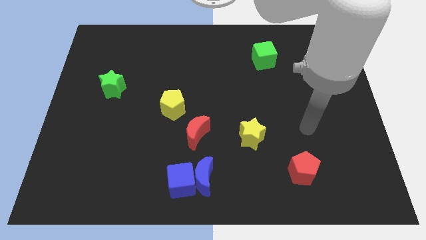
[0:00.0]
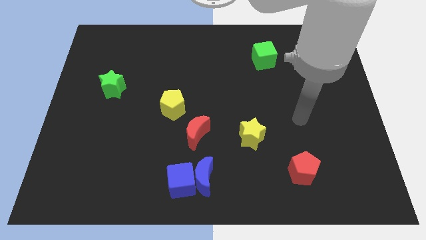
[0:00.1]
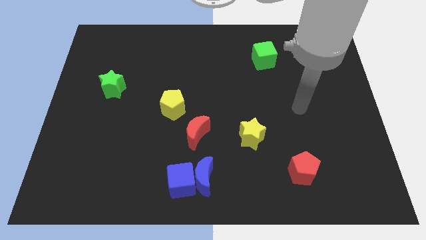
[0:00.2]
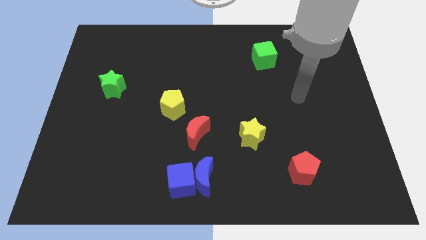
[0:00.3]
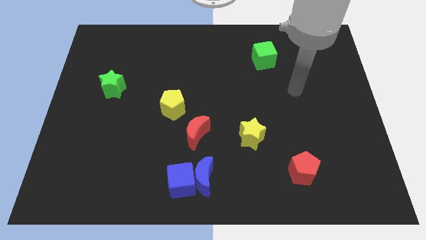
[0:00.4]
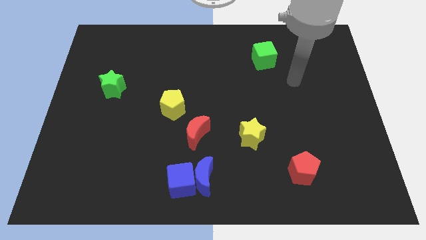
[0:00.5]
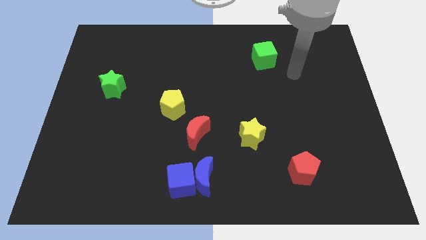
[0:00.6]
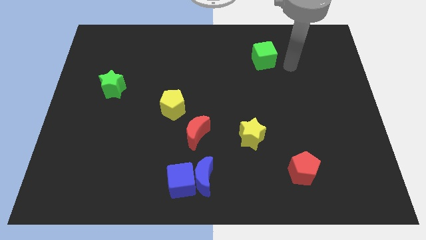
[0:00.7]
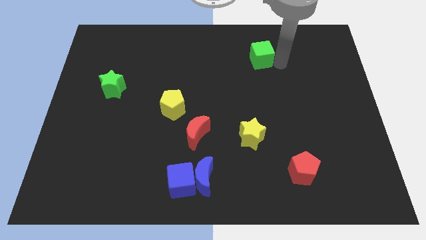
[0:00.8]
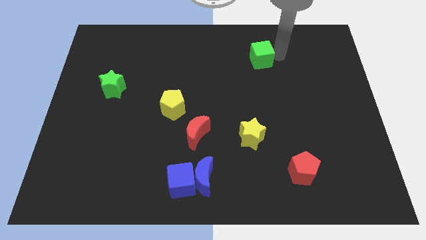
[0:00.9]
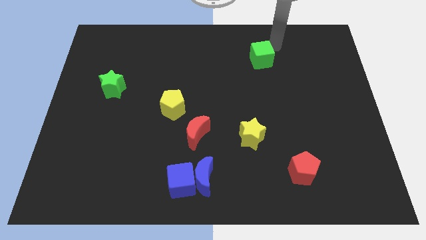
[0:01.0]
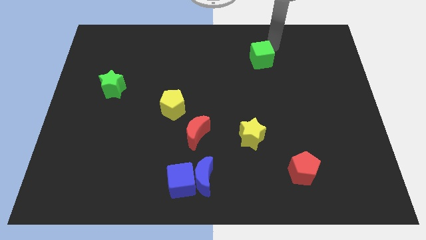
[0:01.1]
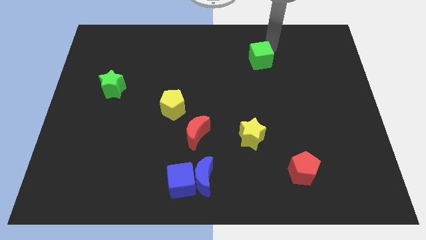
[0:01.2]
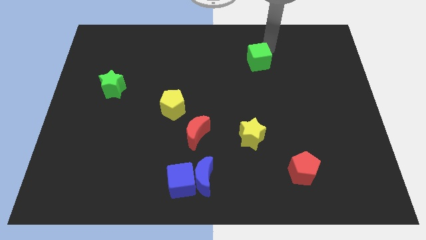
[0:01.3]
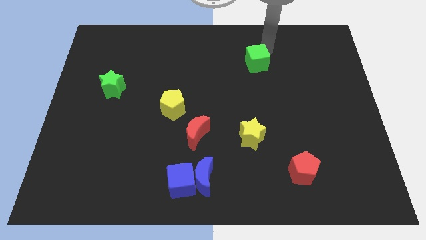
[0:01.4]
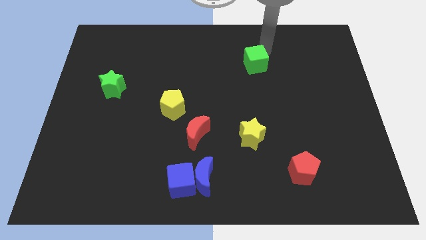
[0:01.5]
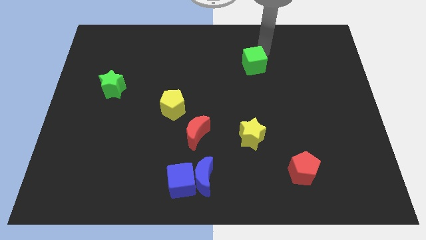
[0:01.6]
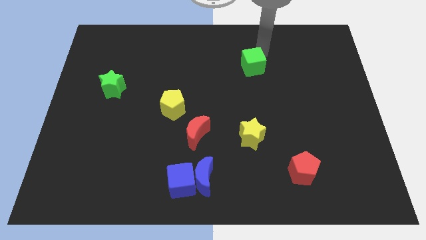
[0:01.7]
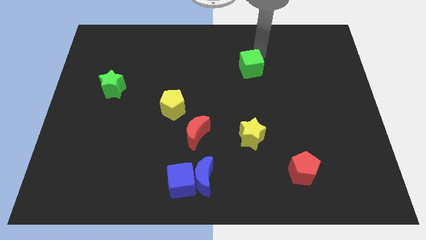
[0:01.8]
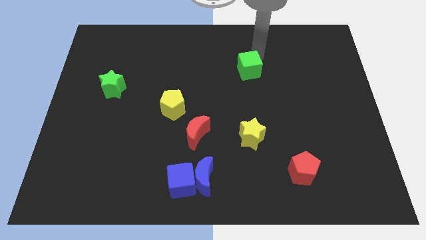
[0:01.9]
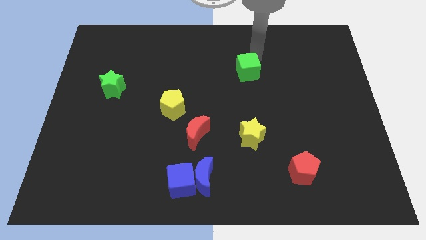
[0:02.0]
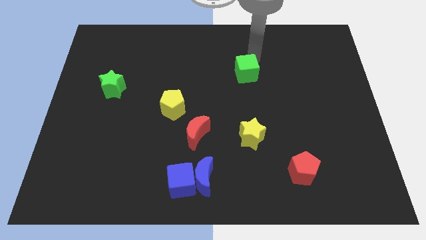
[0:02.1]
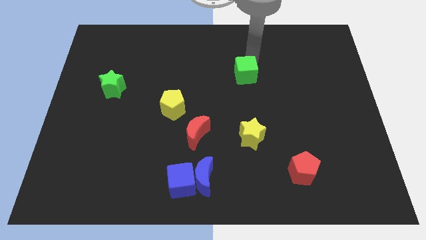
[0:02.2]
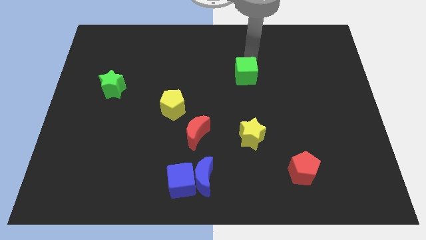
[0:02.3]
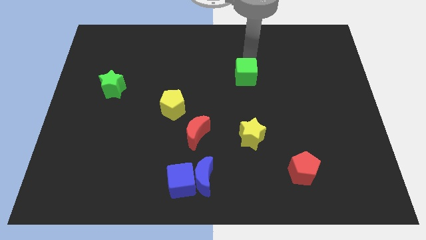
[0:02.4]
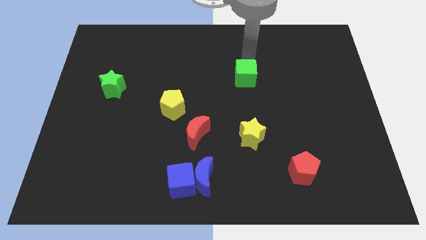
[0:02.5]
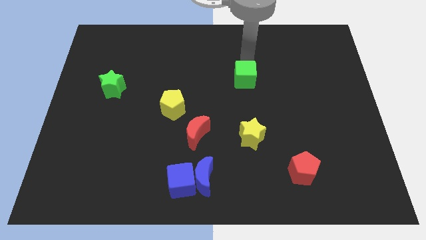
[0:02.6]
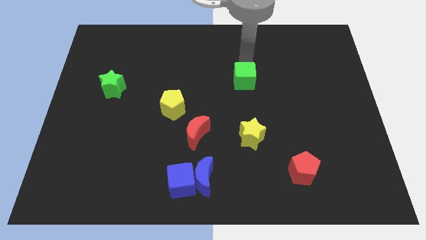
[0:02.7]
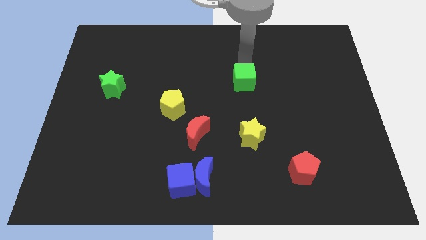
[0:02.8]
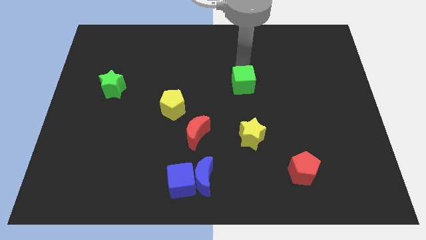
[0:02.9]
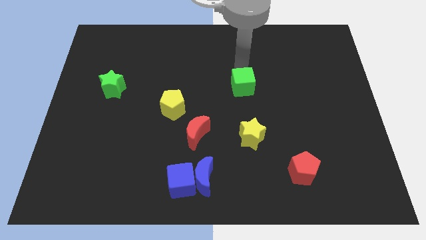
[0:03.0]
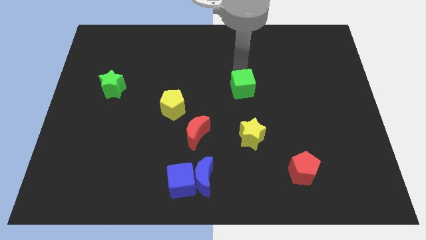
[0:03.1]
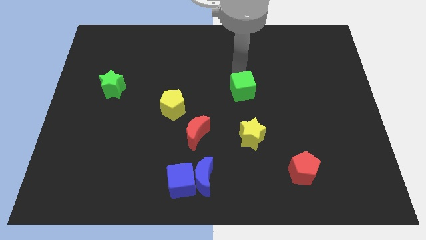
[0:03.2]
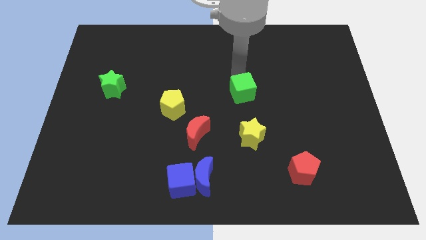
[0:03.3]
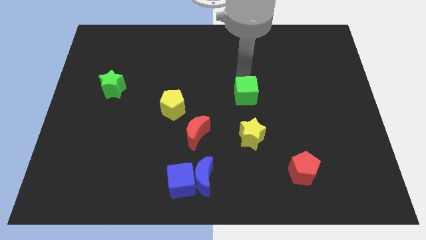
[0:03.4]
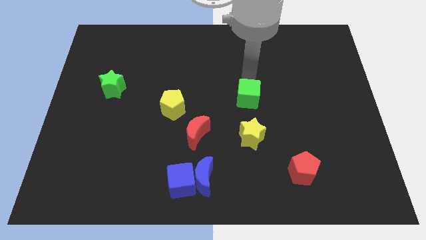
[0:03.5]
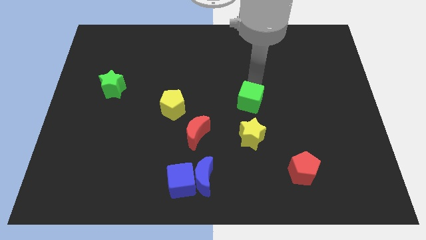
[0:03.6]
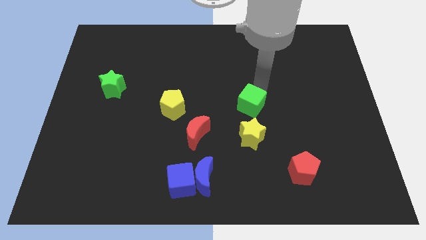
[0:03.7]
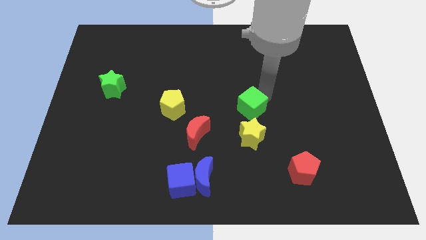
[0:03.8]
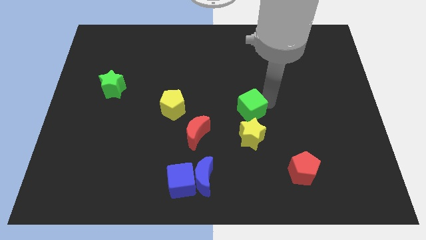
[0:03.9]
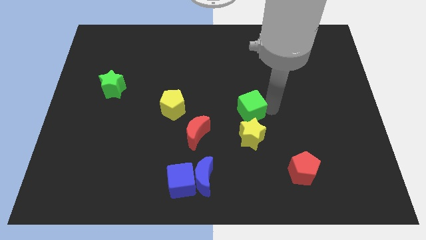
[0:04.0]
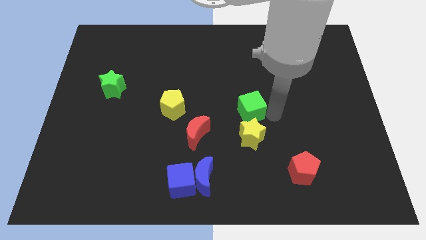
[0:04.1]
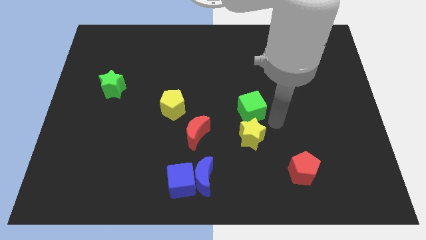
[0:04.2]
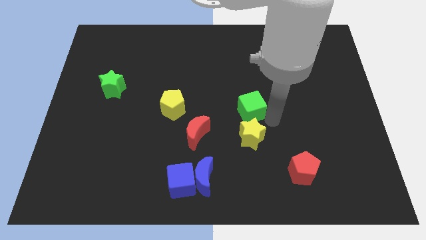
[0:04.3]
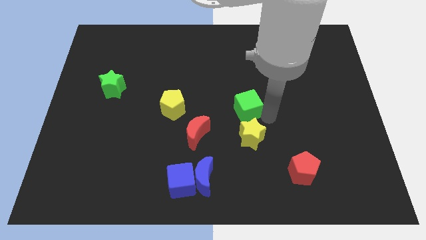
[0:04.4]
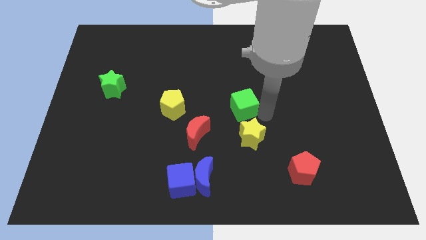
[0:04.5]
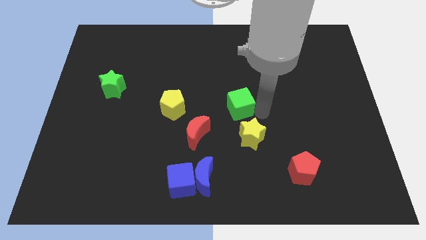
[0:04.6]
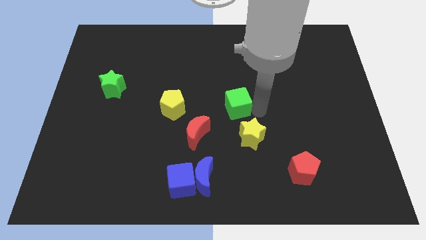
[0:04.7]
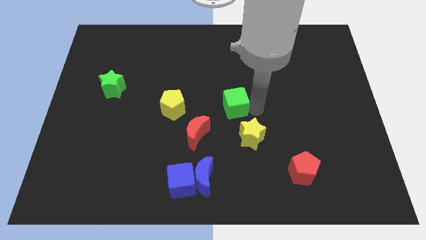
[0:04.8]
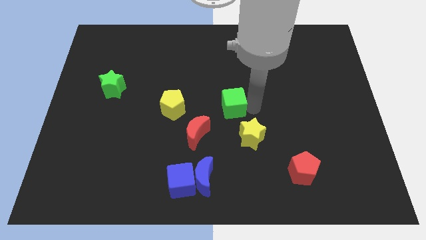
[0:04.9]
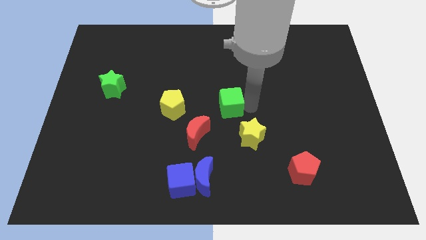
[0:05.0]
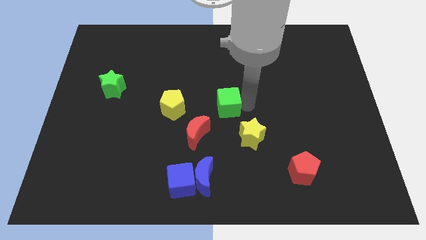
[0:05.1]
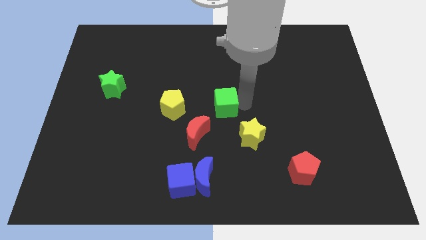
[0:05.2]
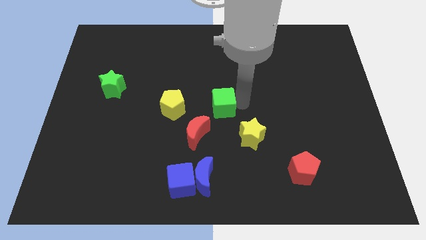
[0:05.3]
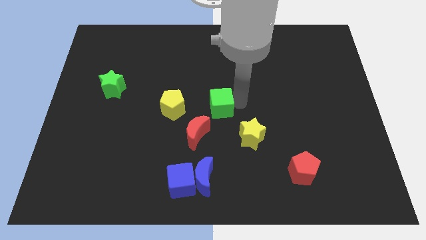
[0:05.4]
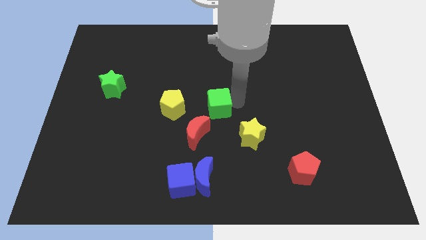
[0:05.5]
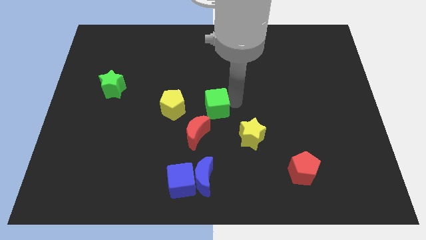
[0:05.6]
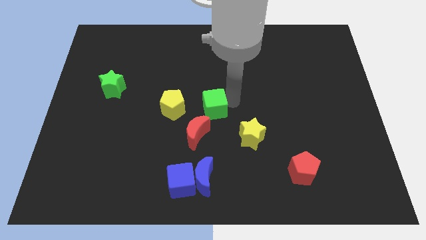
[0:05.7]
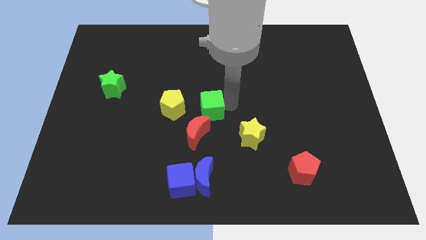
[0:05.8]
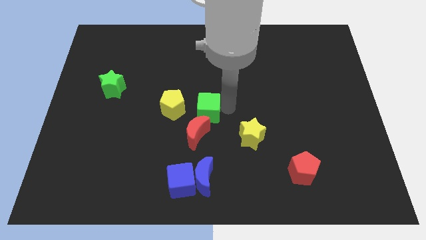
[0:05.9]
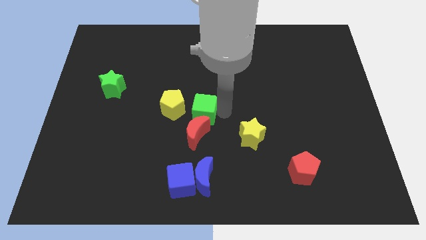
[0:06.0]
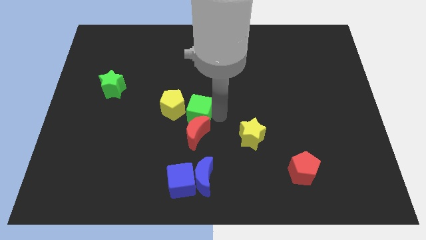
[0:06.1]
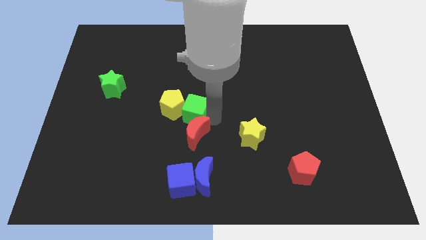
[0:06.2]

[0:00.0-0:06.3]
move the green cube close to the yellow pentagon

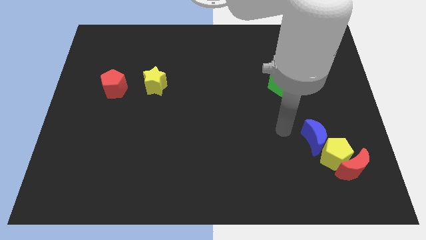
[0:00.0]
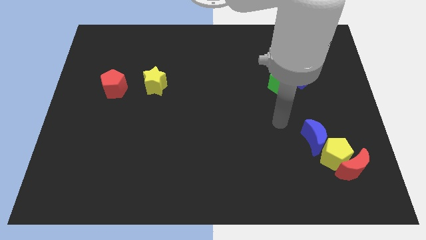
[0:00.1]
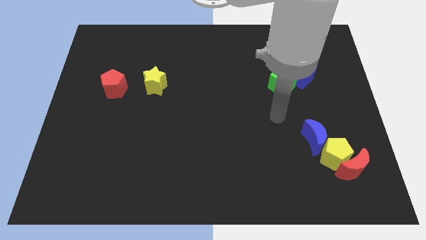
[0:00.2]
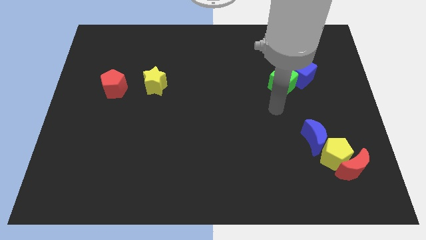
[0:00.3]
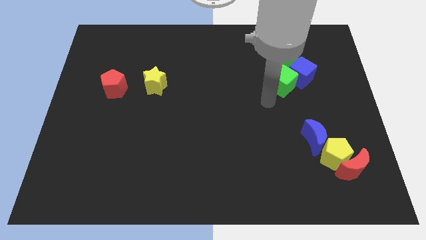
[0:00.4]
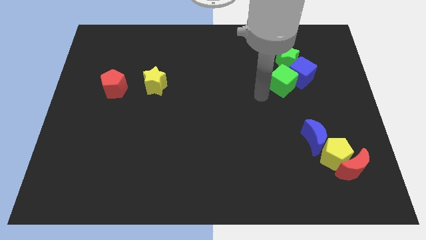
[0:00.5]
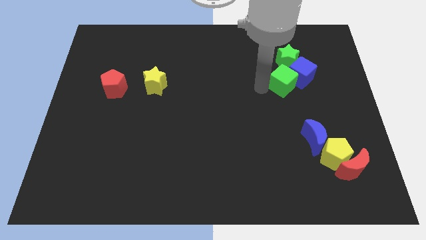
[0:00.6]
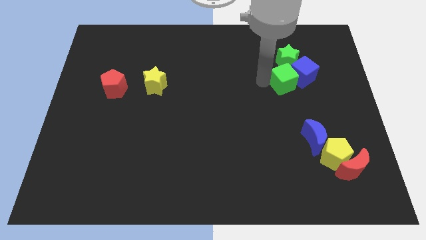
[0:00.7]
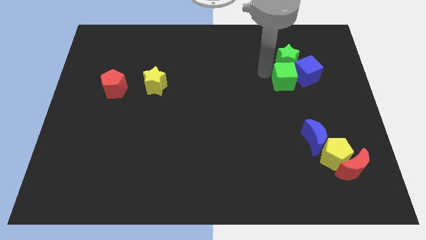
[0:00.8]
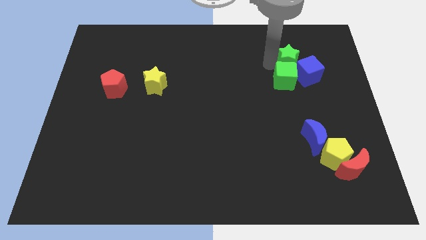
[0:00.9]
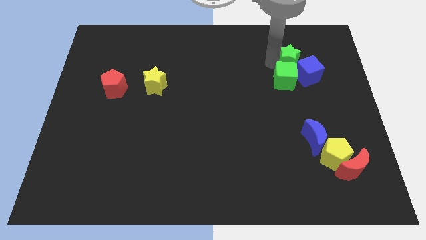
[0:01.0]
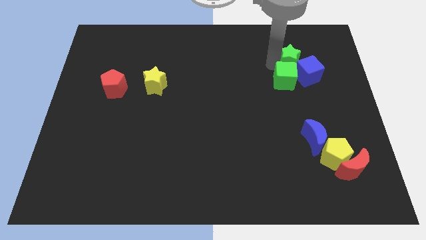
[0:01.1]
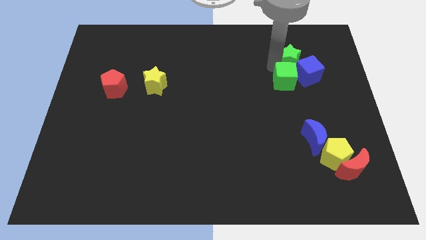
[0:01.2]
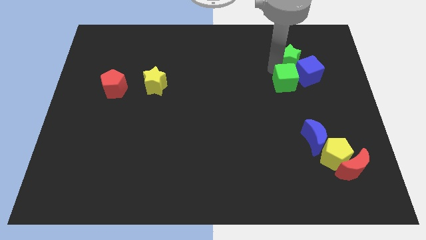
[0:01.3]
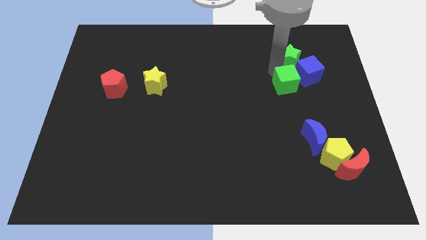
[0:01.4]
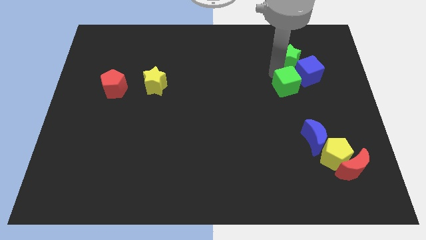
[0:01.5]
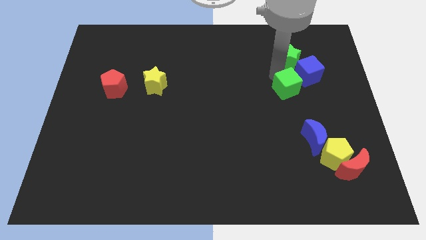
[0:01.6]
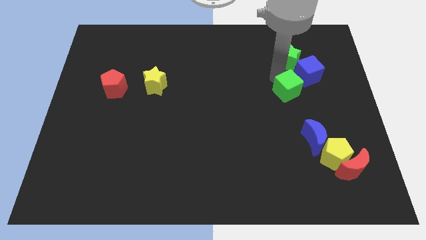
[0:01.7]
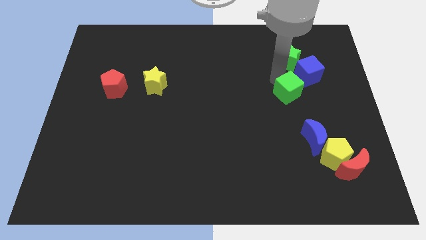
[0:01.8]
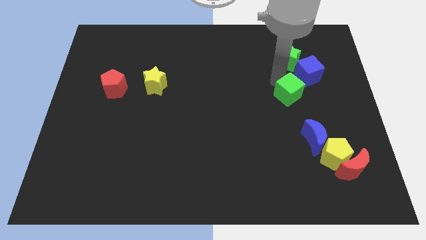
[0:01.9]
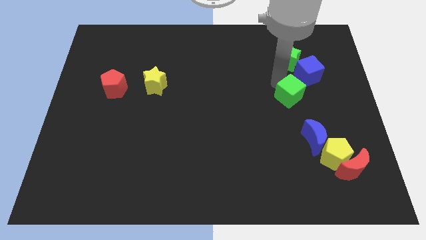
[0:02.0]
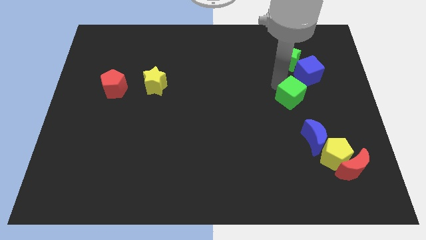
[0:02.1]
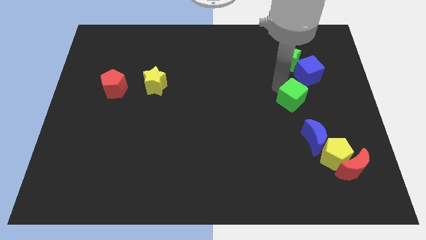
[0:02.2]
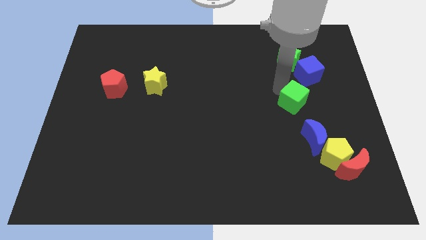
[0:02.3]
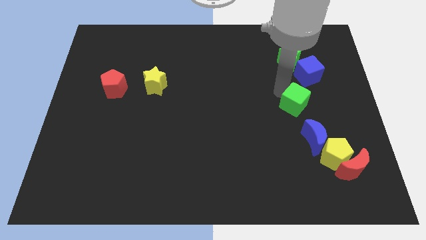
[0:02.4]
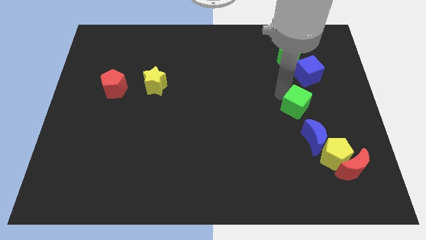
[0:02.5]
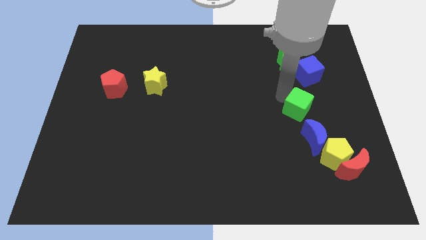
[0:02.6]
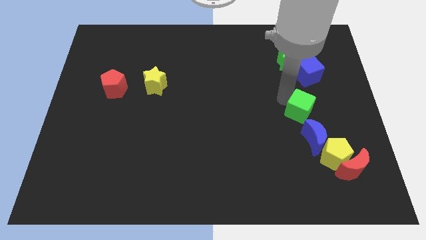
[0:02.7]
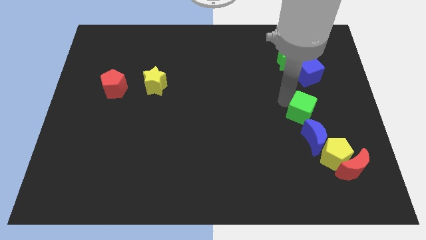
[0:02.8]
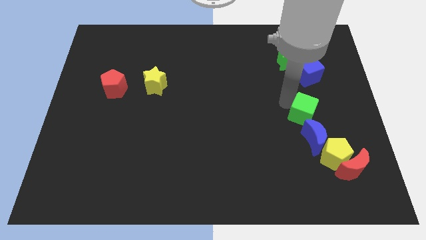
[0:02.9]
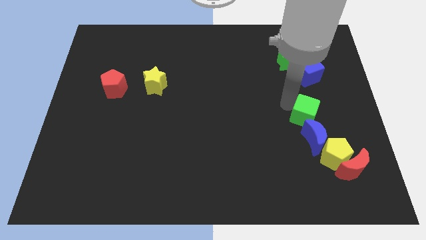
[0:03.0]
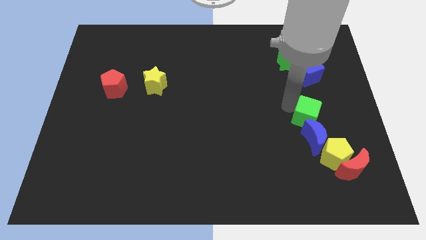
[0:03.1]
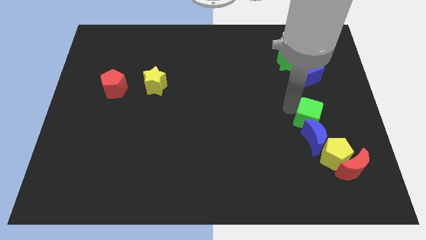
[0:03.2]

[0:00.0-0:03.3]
put the green cube towards the blue moon
